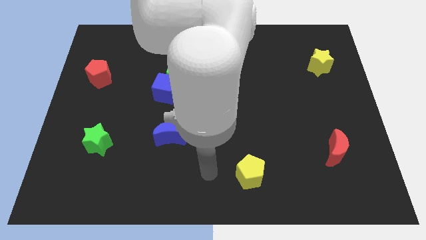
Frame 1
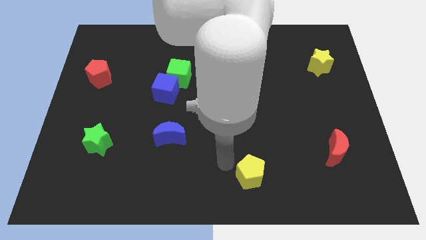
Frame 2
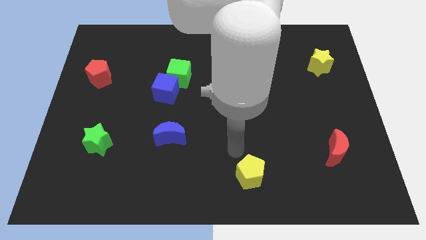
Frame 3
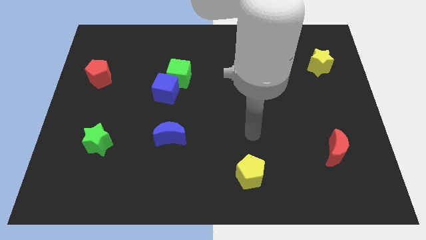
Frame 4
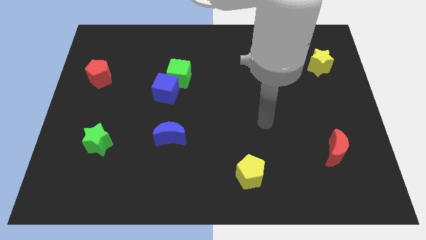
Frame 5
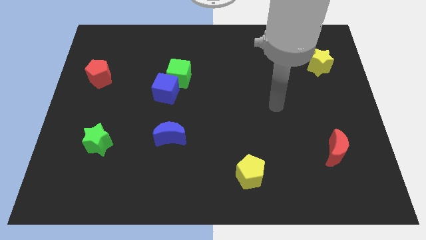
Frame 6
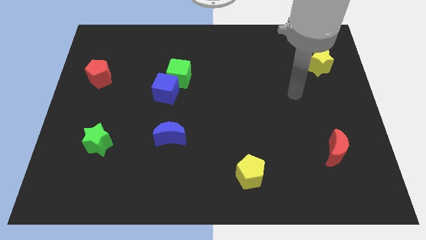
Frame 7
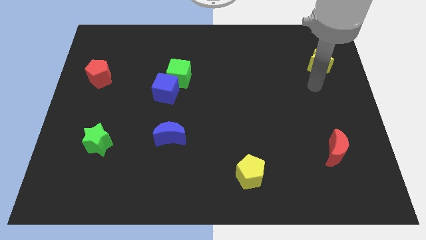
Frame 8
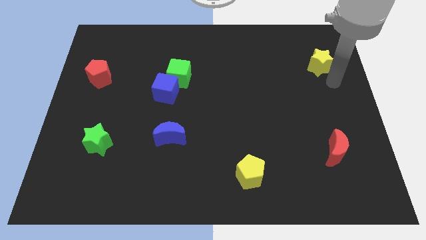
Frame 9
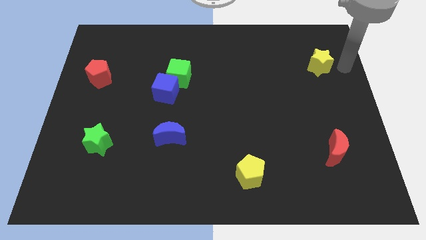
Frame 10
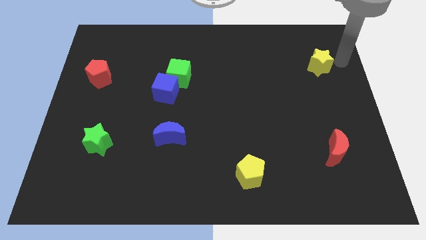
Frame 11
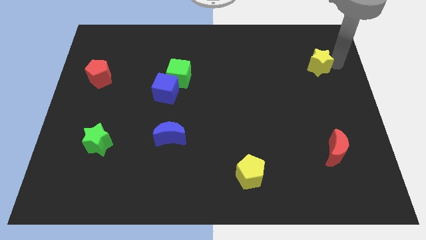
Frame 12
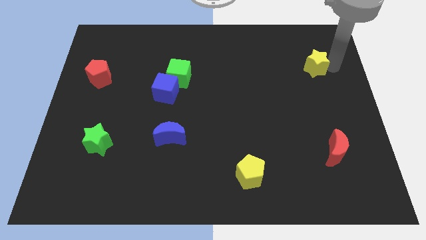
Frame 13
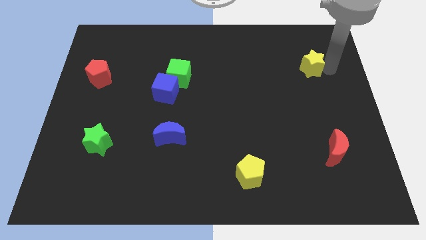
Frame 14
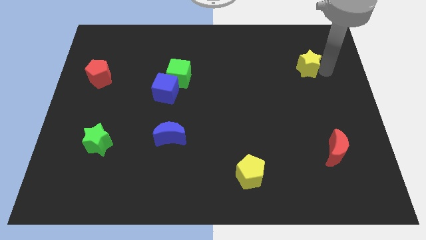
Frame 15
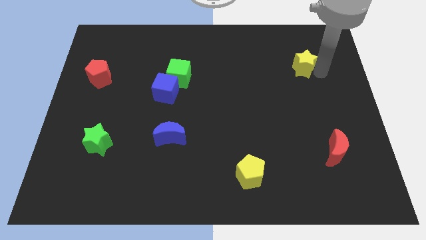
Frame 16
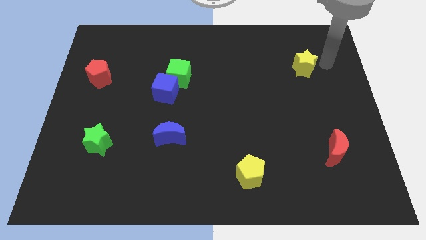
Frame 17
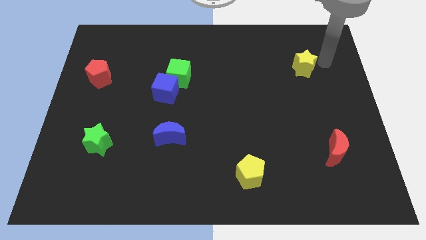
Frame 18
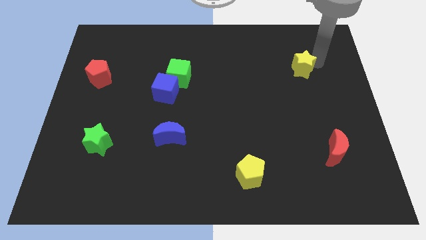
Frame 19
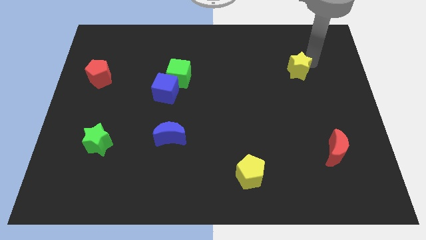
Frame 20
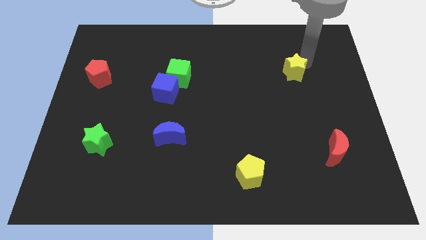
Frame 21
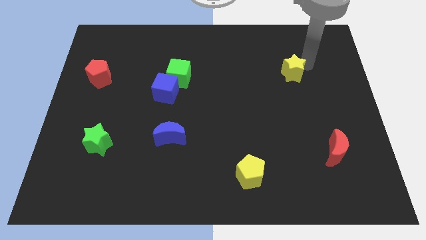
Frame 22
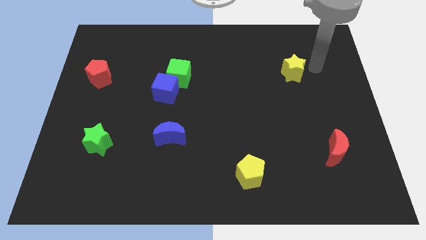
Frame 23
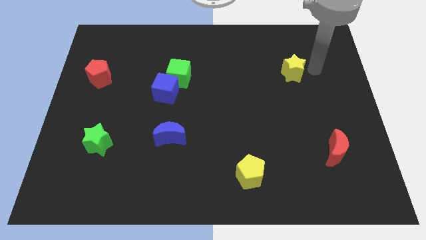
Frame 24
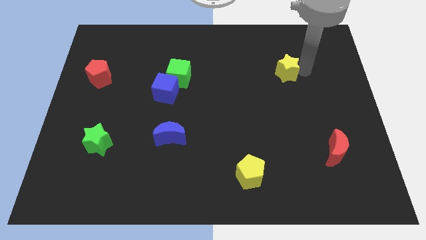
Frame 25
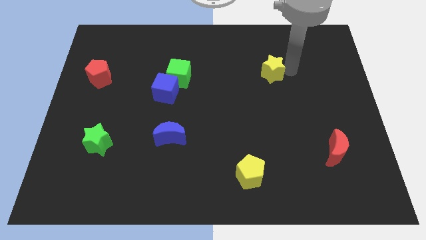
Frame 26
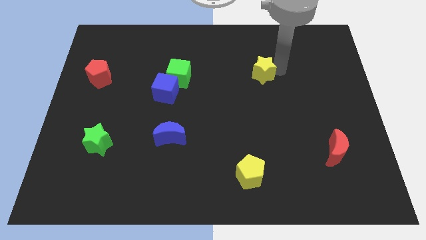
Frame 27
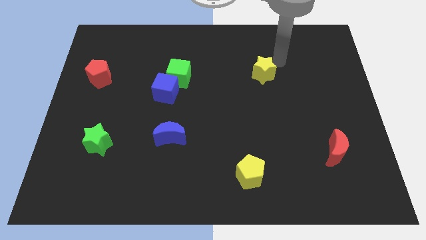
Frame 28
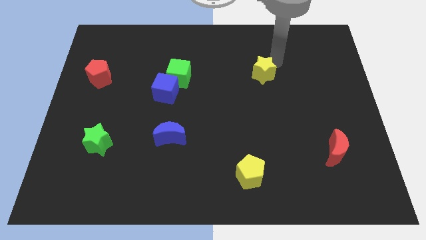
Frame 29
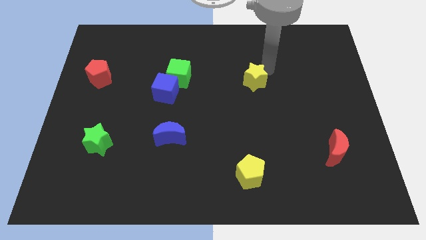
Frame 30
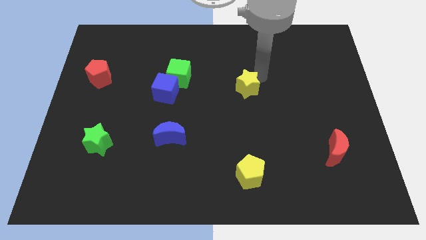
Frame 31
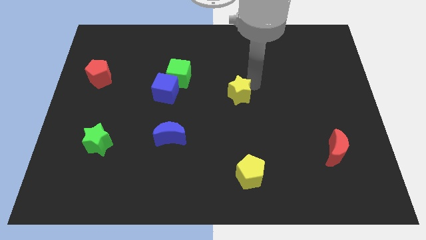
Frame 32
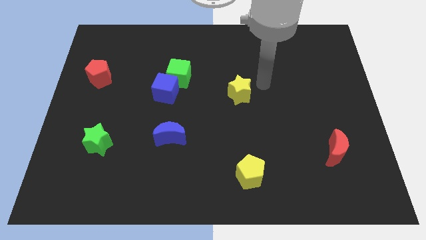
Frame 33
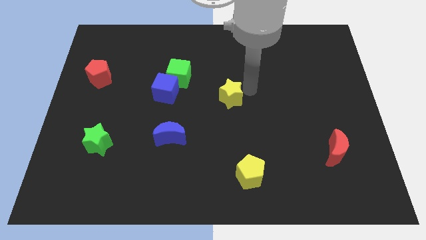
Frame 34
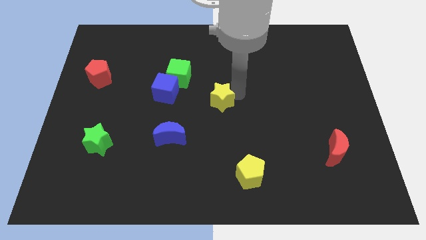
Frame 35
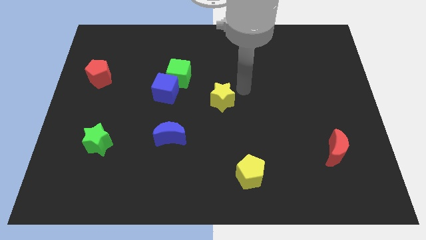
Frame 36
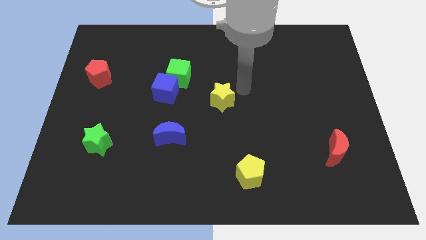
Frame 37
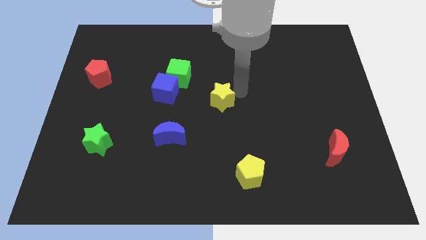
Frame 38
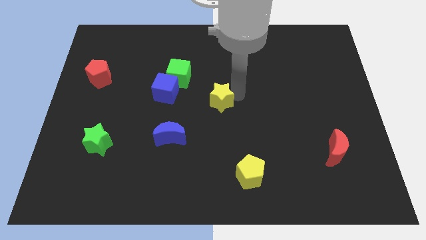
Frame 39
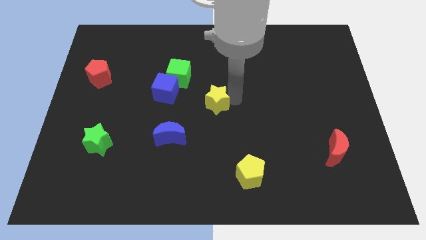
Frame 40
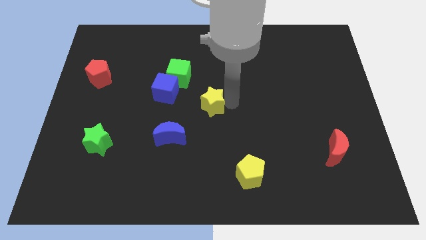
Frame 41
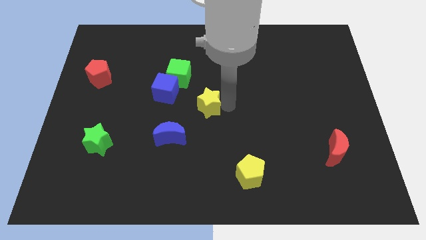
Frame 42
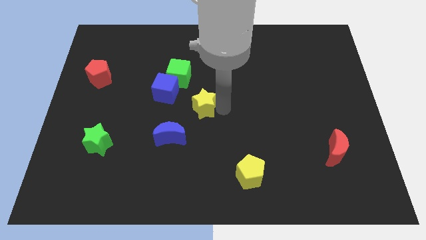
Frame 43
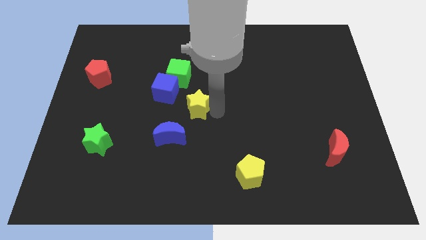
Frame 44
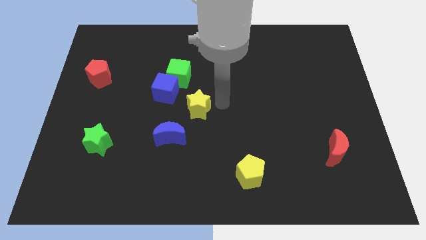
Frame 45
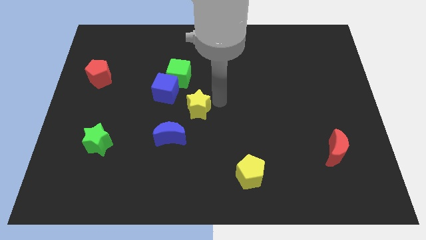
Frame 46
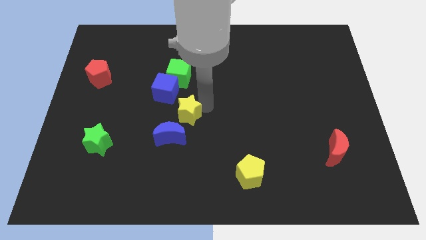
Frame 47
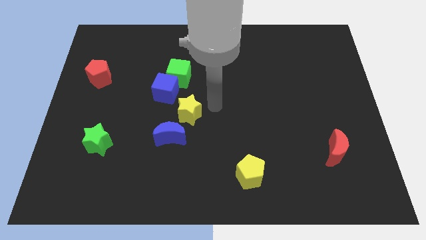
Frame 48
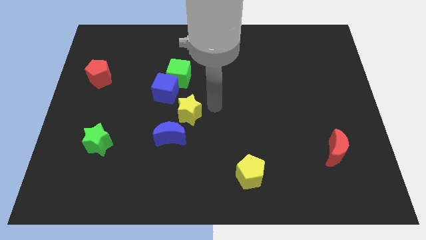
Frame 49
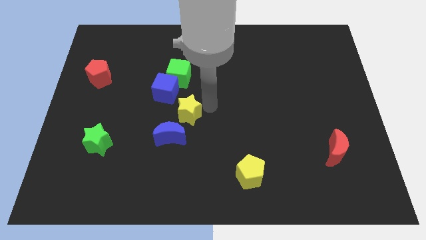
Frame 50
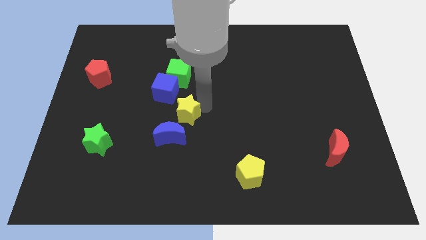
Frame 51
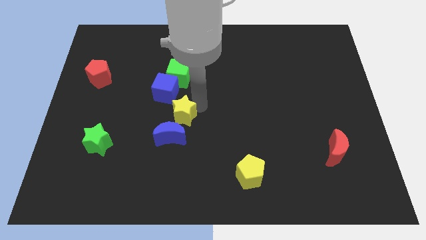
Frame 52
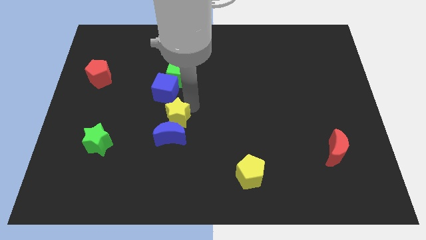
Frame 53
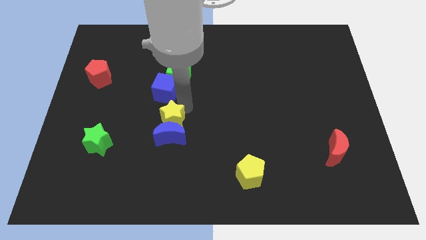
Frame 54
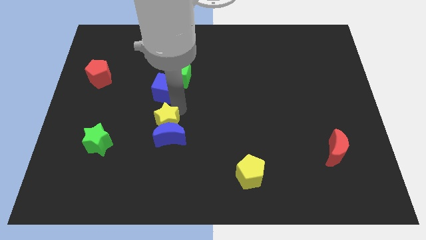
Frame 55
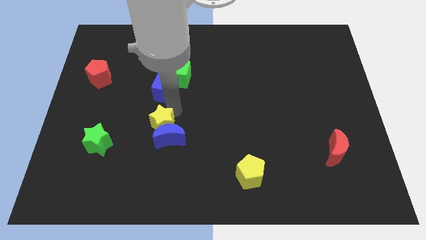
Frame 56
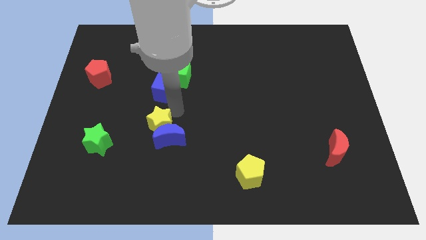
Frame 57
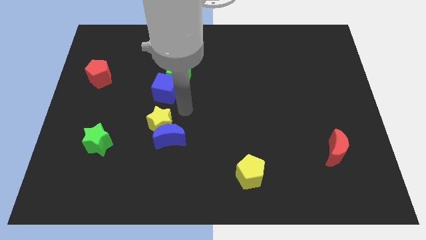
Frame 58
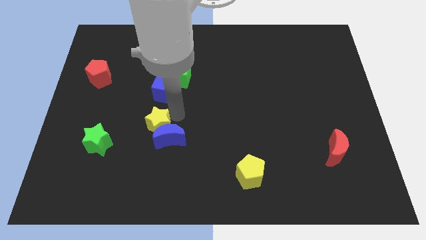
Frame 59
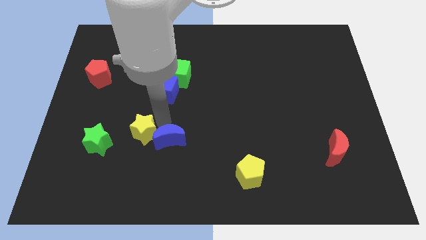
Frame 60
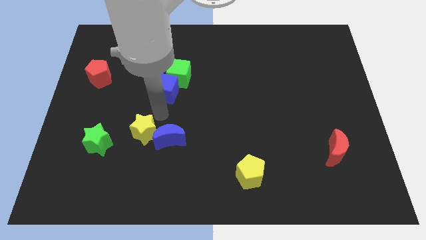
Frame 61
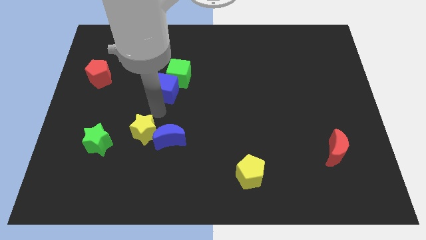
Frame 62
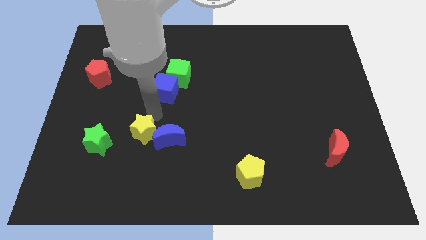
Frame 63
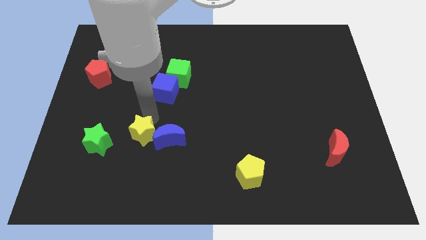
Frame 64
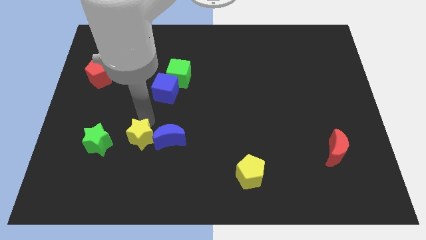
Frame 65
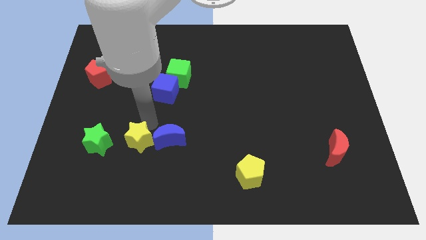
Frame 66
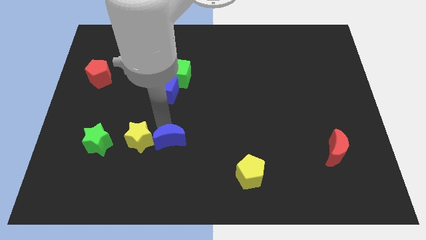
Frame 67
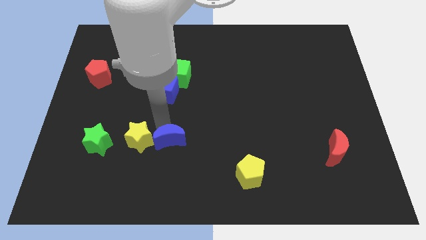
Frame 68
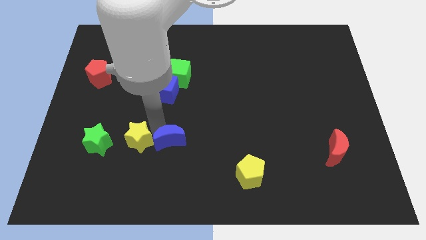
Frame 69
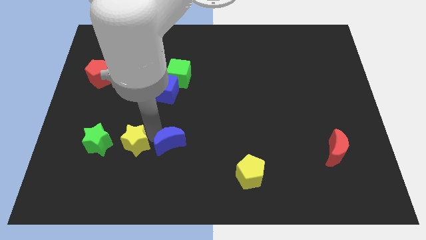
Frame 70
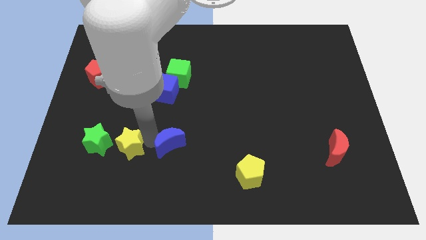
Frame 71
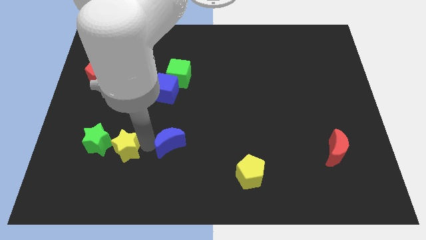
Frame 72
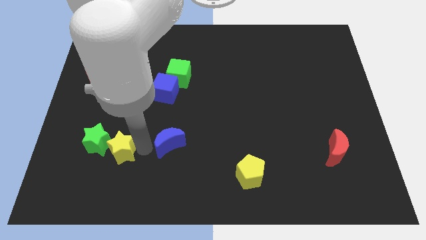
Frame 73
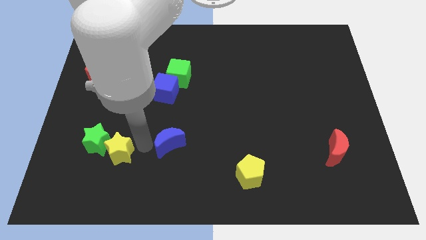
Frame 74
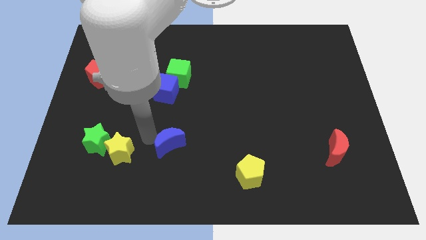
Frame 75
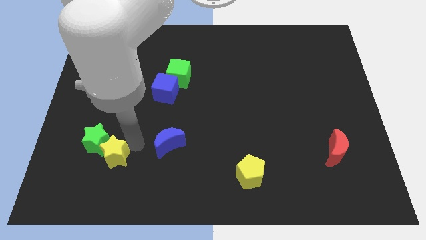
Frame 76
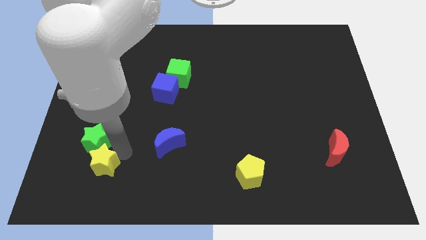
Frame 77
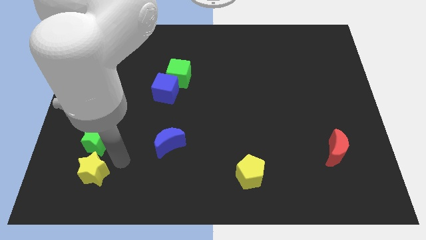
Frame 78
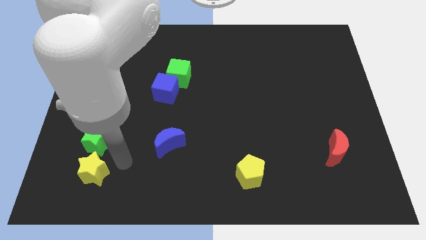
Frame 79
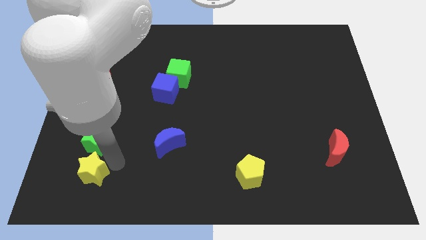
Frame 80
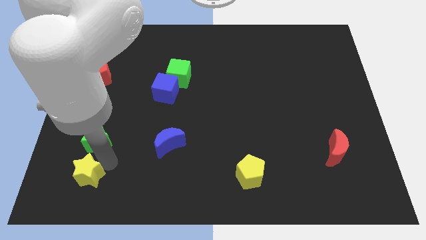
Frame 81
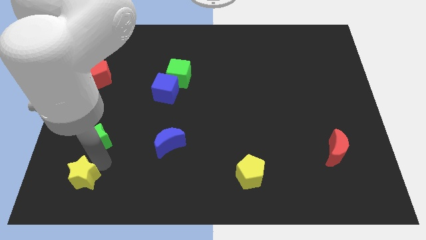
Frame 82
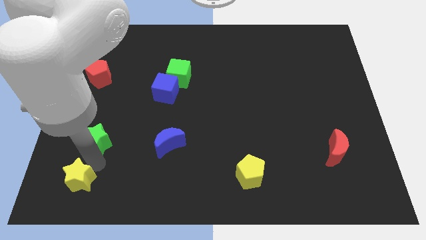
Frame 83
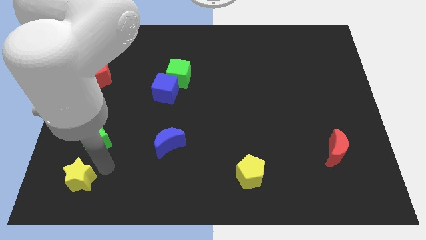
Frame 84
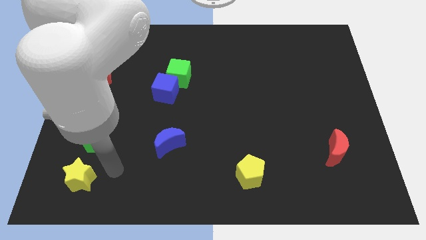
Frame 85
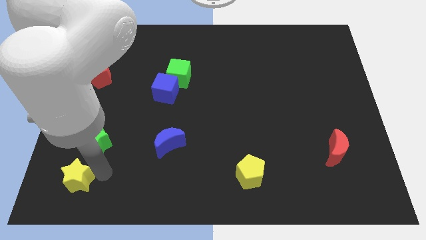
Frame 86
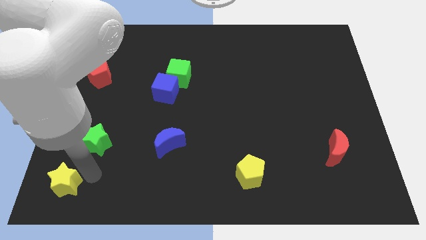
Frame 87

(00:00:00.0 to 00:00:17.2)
push the yellow star to the lower left corner
